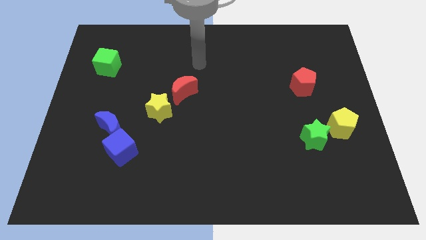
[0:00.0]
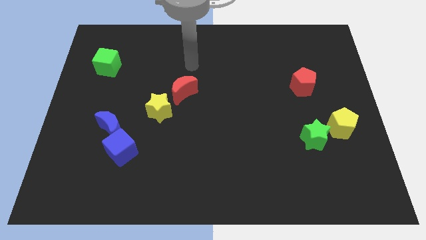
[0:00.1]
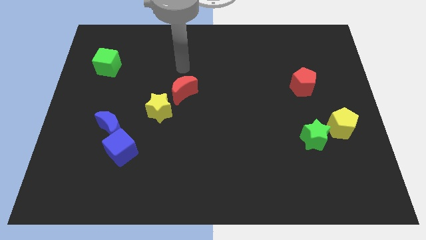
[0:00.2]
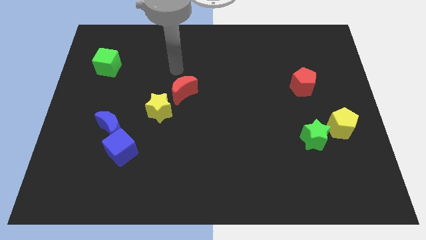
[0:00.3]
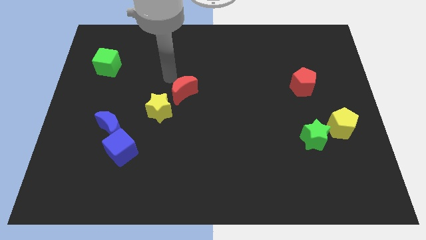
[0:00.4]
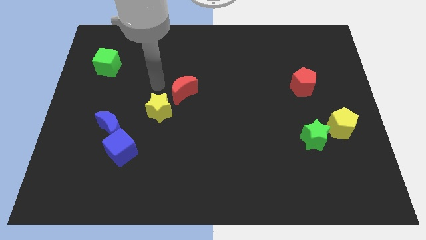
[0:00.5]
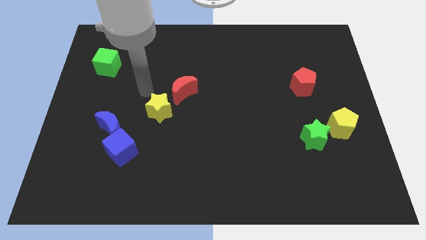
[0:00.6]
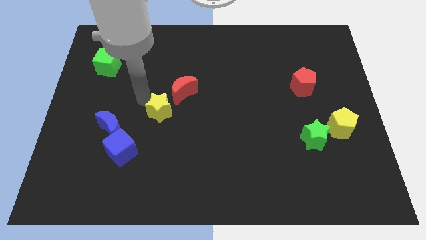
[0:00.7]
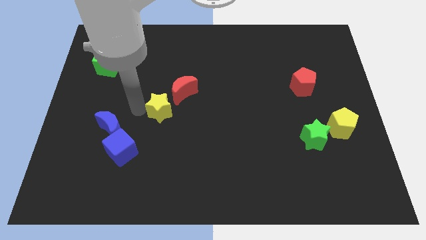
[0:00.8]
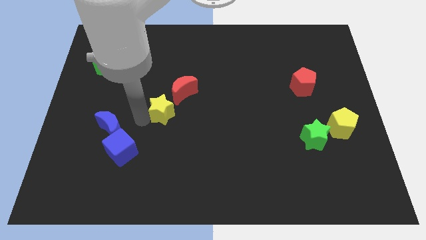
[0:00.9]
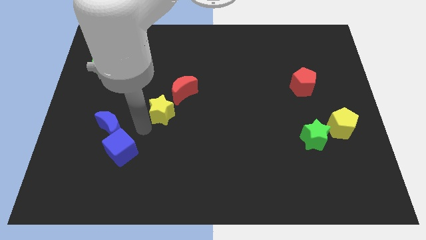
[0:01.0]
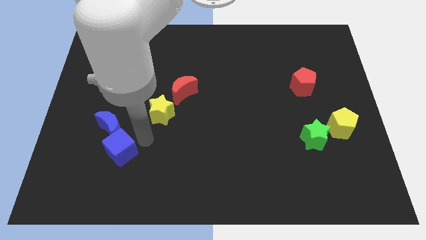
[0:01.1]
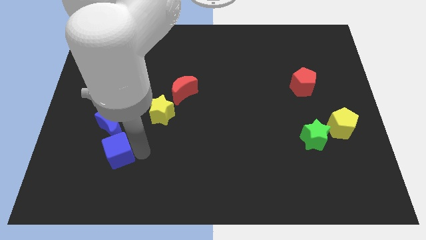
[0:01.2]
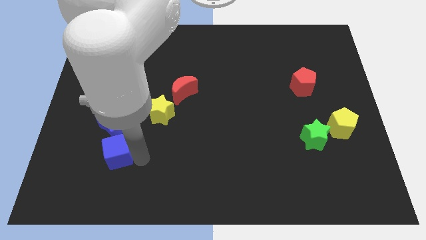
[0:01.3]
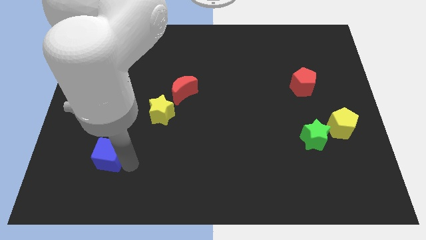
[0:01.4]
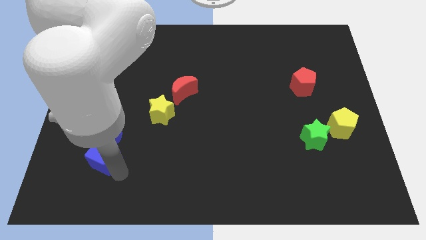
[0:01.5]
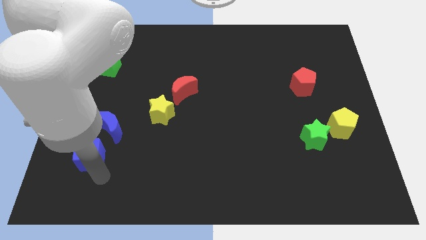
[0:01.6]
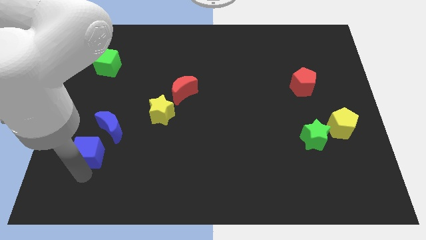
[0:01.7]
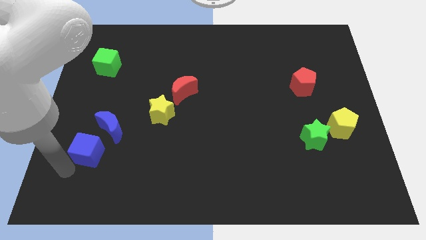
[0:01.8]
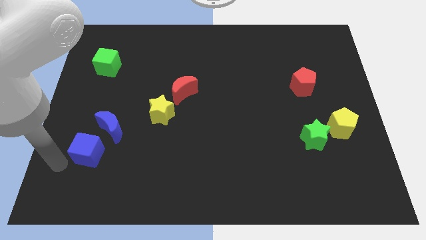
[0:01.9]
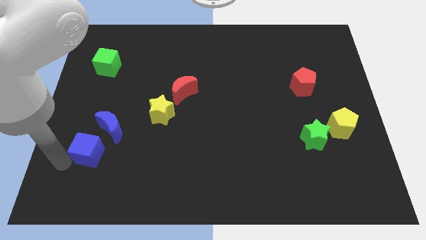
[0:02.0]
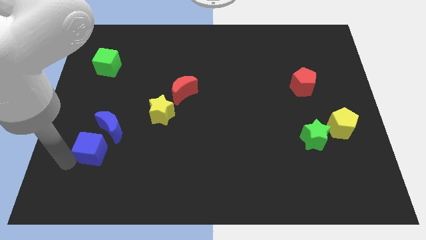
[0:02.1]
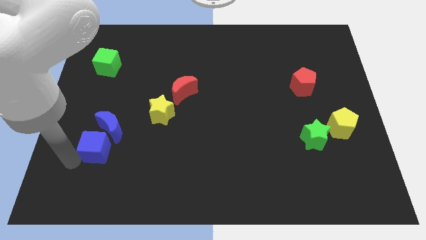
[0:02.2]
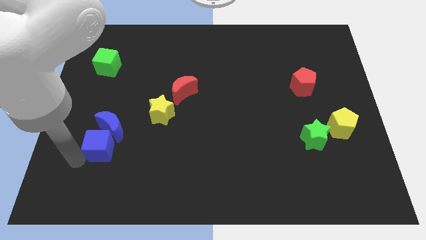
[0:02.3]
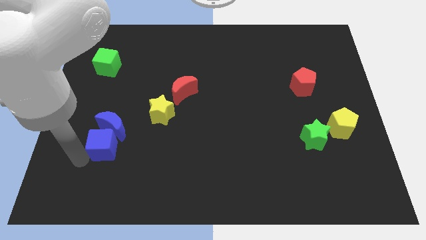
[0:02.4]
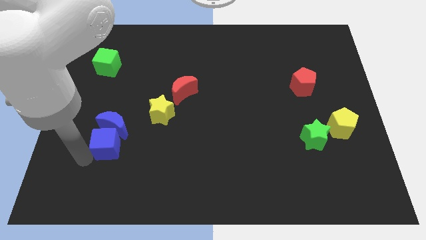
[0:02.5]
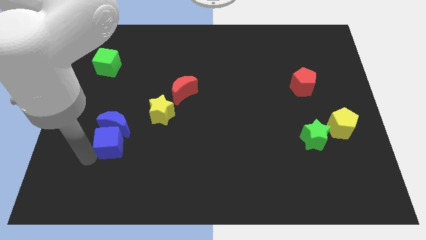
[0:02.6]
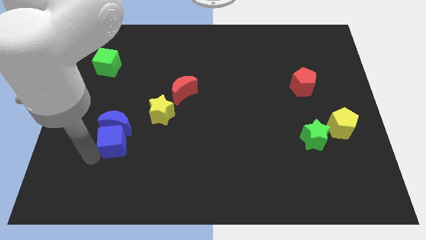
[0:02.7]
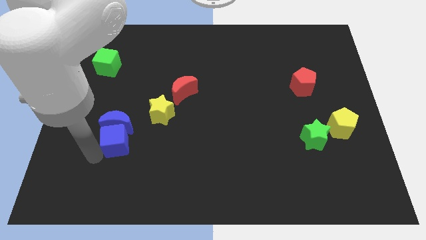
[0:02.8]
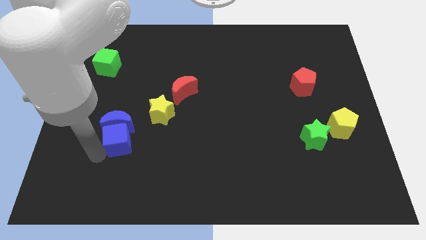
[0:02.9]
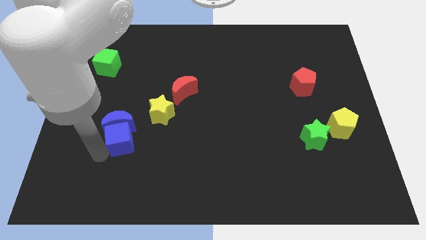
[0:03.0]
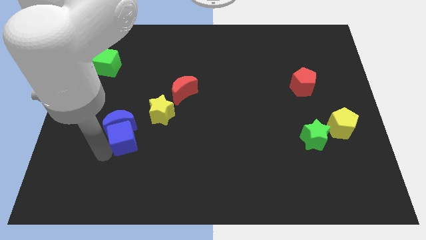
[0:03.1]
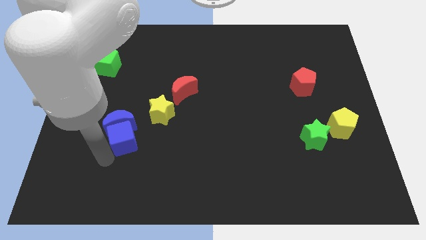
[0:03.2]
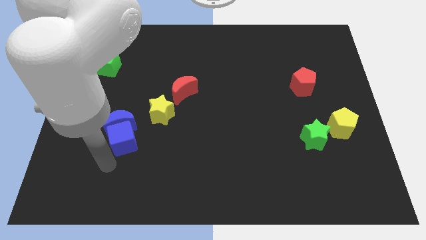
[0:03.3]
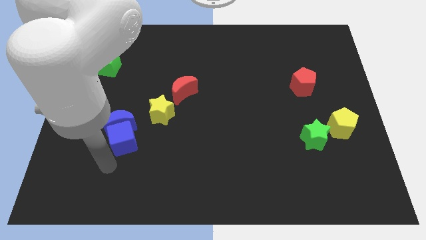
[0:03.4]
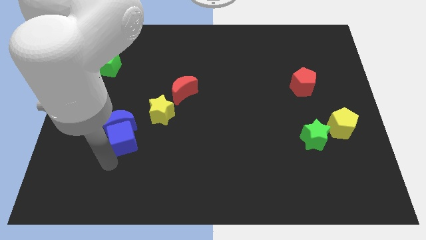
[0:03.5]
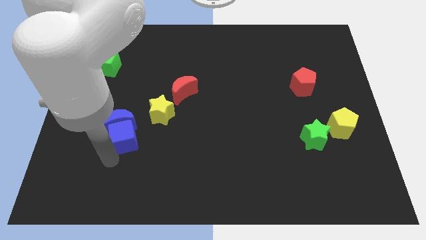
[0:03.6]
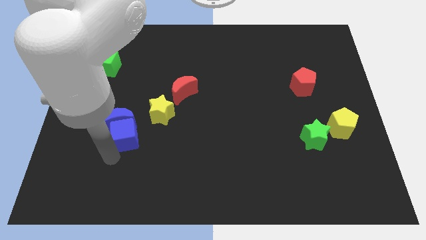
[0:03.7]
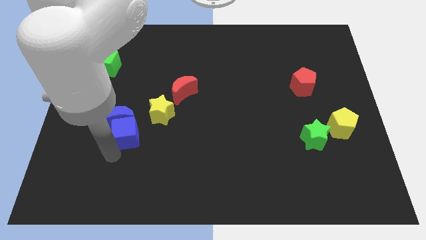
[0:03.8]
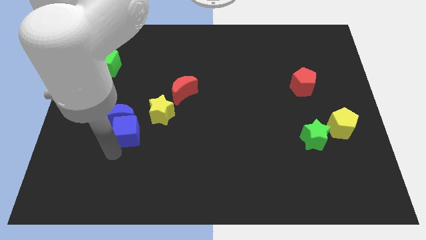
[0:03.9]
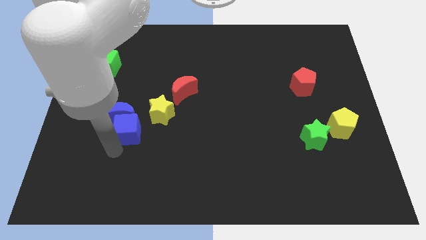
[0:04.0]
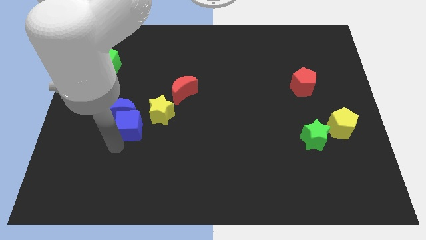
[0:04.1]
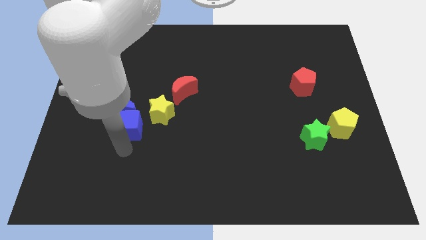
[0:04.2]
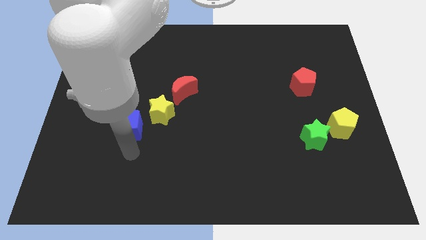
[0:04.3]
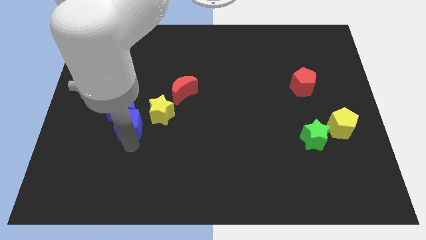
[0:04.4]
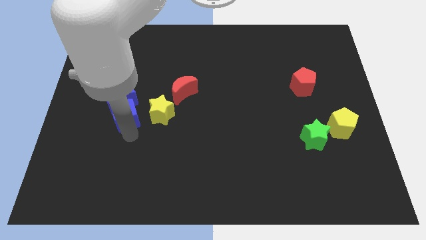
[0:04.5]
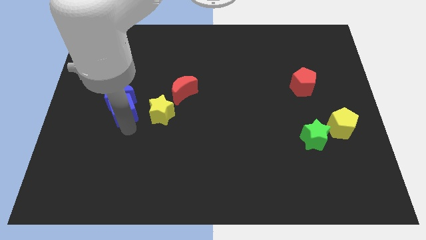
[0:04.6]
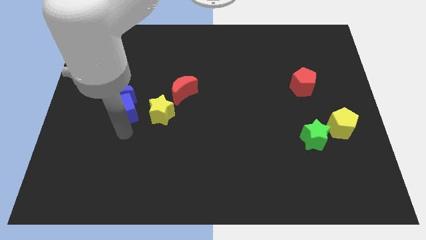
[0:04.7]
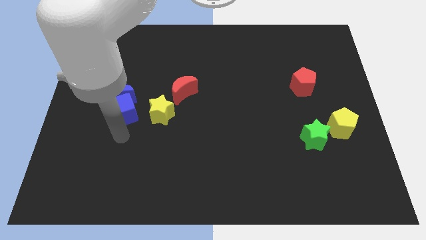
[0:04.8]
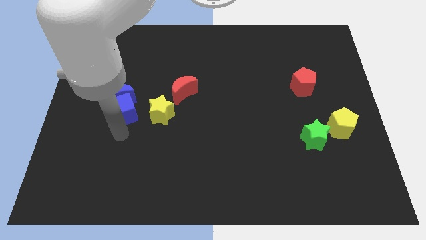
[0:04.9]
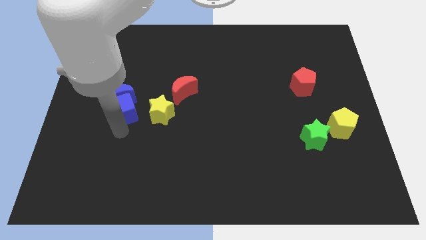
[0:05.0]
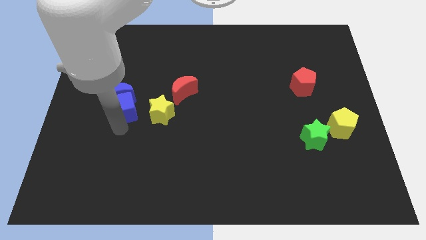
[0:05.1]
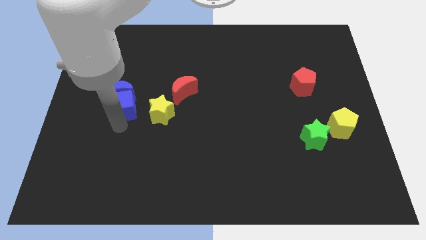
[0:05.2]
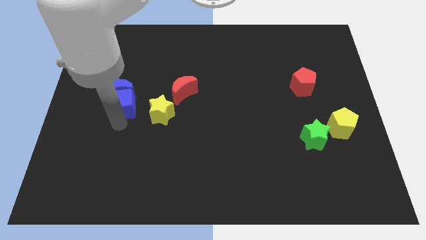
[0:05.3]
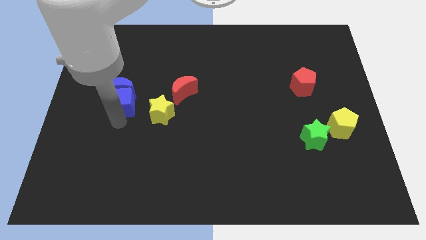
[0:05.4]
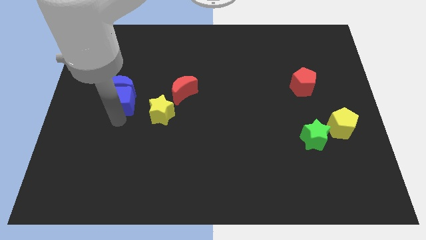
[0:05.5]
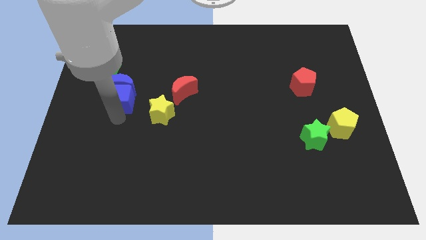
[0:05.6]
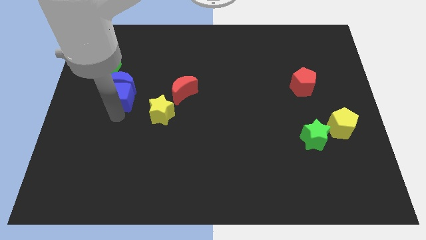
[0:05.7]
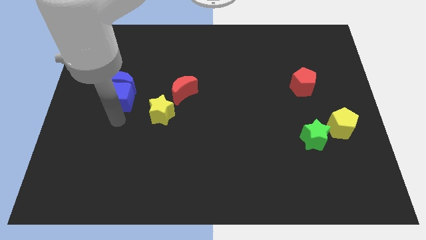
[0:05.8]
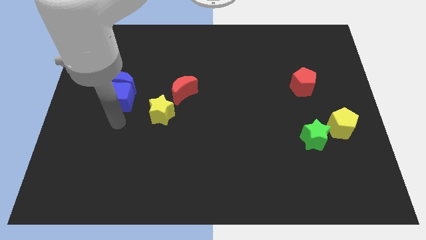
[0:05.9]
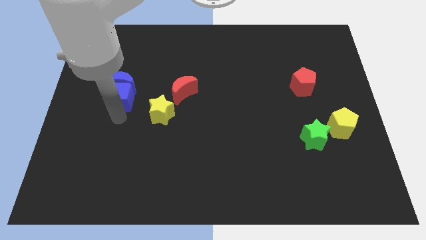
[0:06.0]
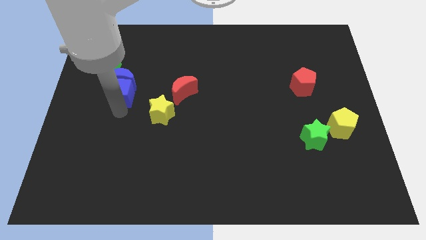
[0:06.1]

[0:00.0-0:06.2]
move the blue cube diagonally down and to the right of the green cube

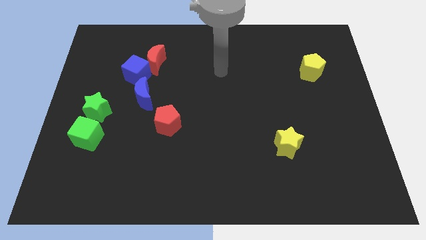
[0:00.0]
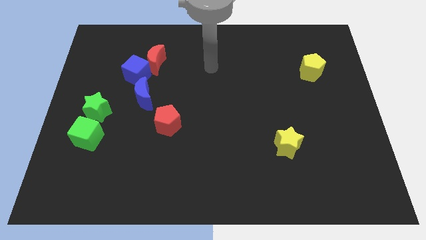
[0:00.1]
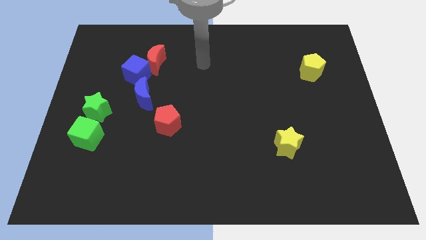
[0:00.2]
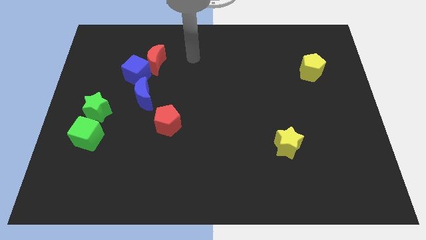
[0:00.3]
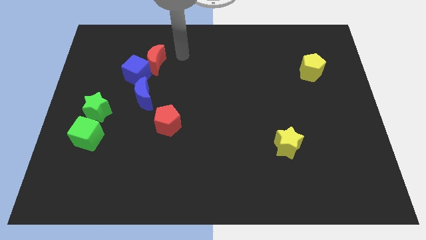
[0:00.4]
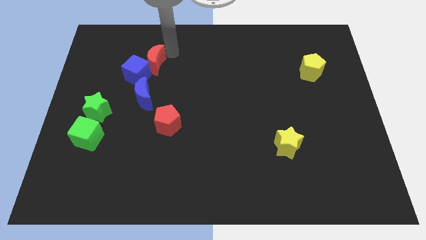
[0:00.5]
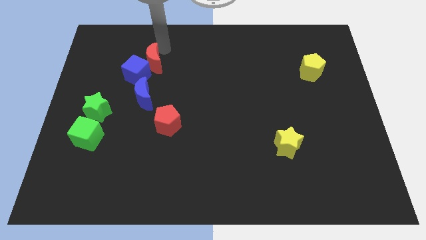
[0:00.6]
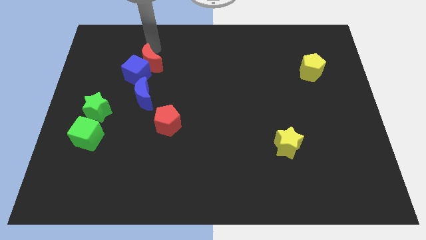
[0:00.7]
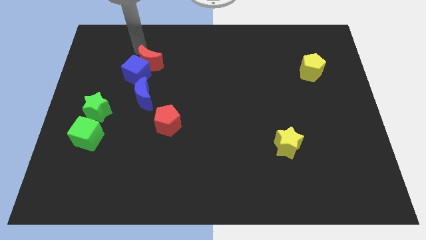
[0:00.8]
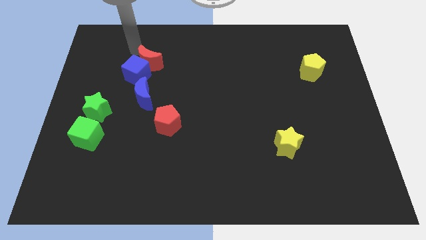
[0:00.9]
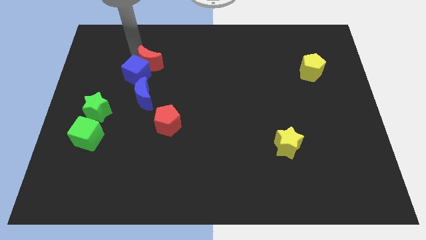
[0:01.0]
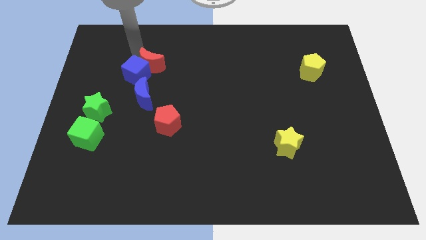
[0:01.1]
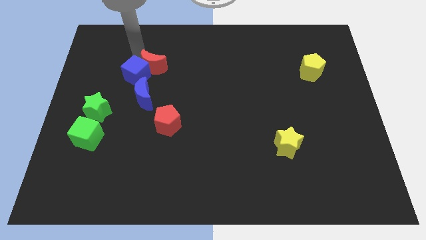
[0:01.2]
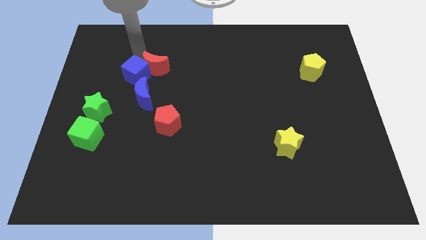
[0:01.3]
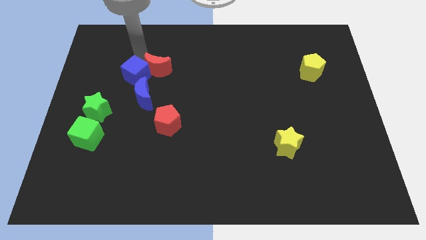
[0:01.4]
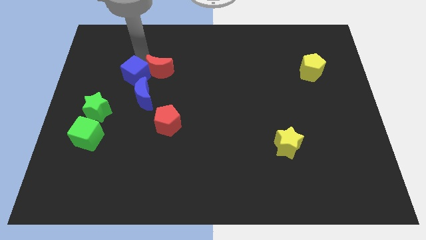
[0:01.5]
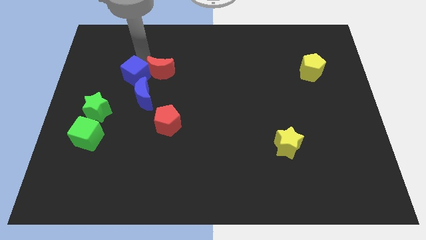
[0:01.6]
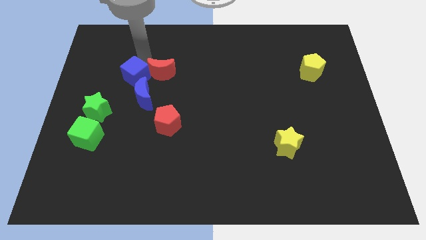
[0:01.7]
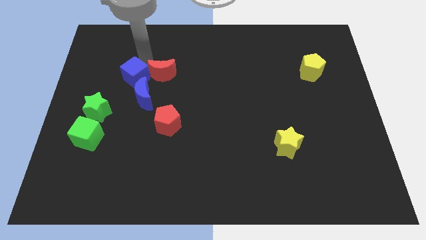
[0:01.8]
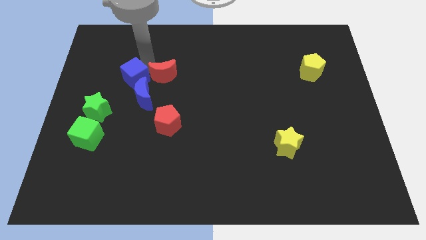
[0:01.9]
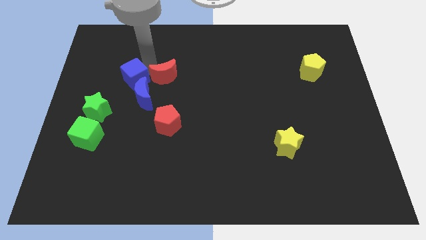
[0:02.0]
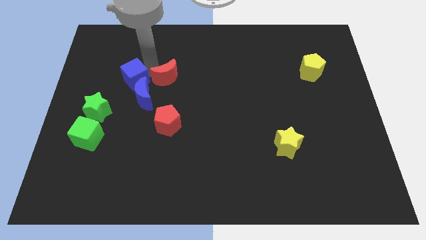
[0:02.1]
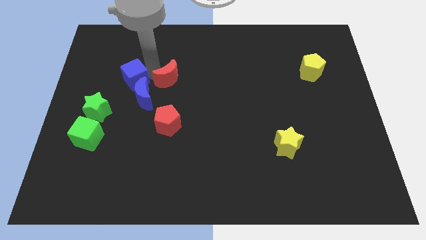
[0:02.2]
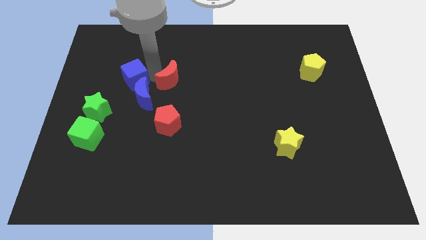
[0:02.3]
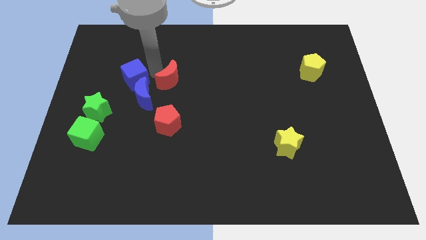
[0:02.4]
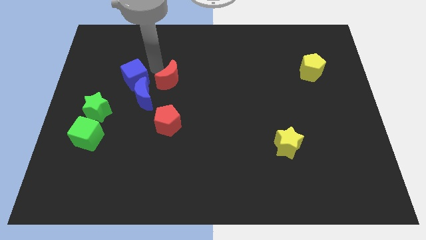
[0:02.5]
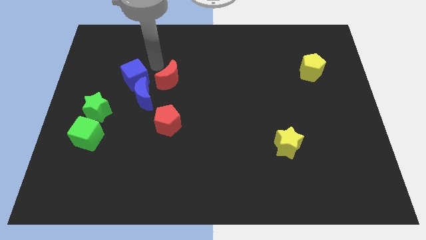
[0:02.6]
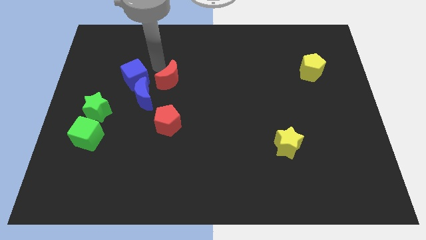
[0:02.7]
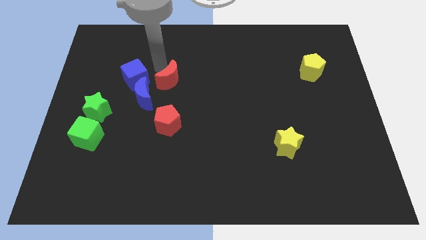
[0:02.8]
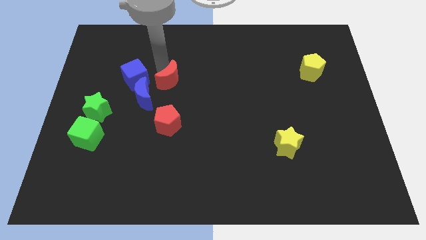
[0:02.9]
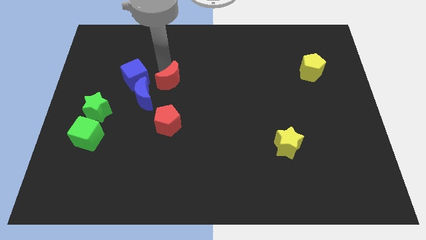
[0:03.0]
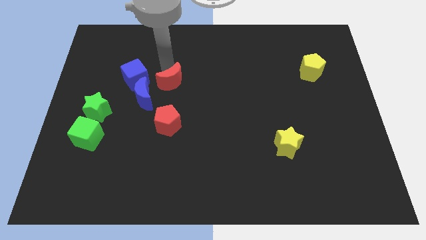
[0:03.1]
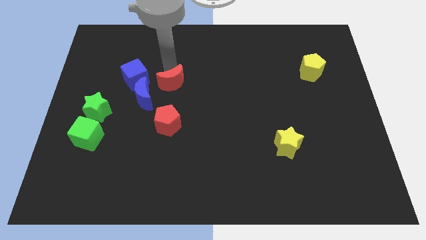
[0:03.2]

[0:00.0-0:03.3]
slide the red moon to the right of the blue moon
